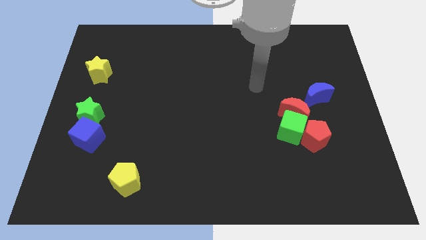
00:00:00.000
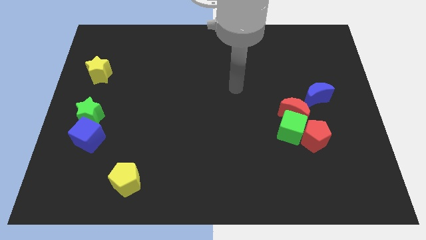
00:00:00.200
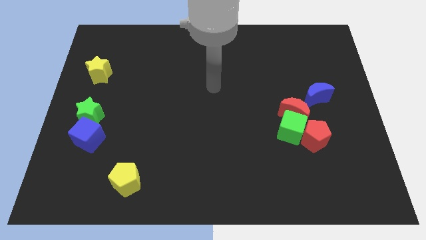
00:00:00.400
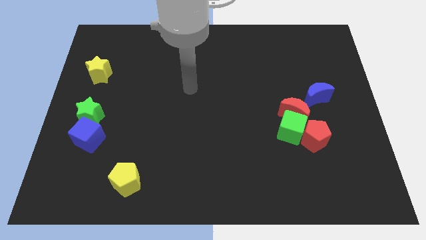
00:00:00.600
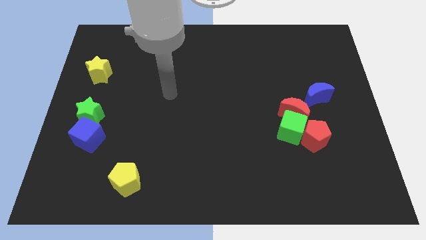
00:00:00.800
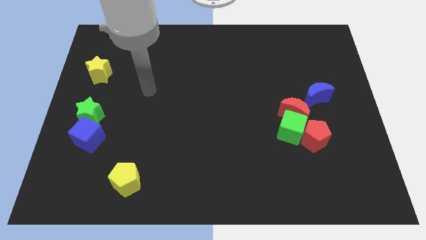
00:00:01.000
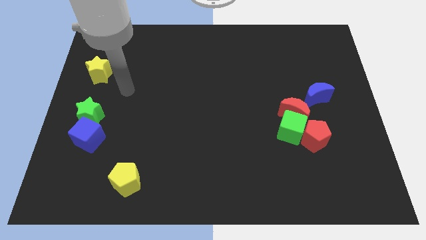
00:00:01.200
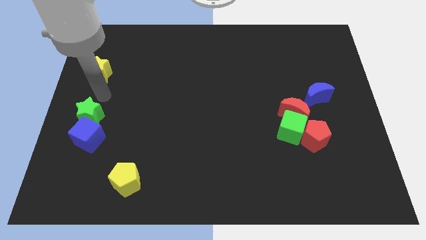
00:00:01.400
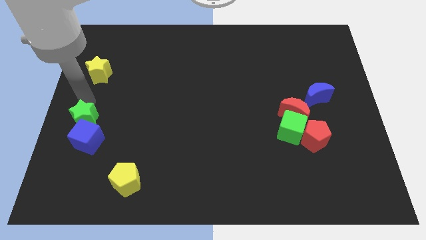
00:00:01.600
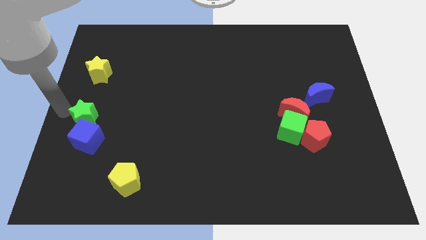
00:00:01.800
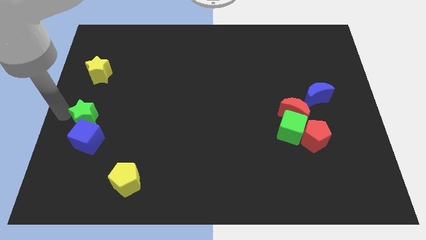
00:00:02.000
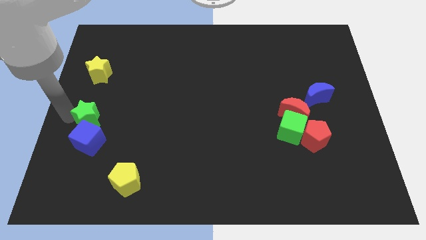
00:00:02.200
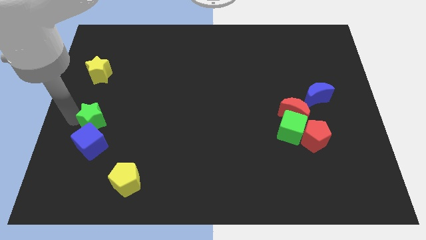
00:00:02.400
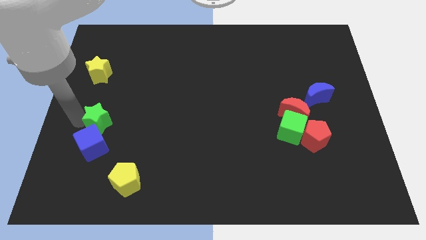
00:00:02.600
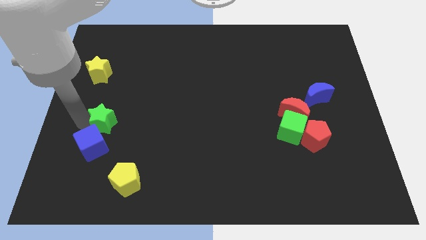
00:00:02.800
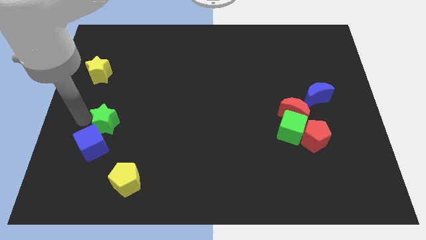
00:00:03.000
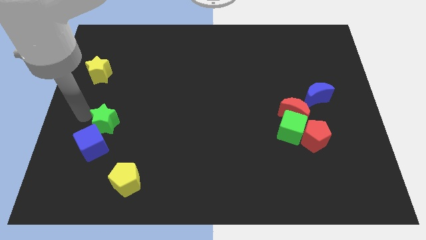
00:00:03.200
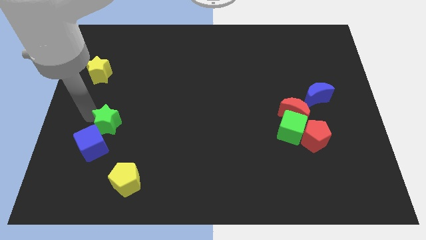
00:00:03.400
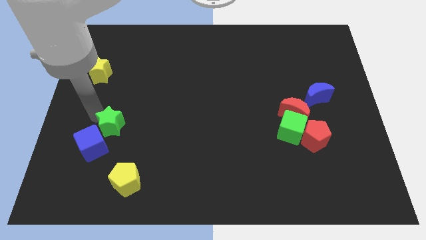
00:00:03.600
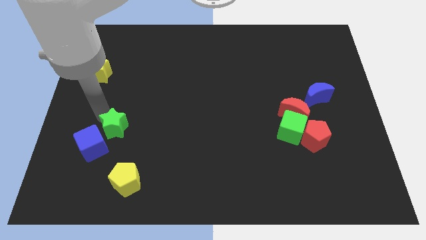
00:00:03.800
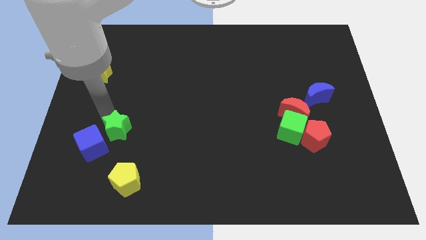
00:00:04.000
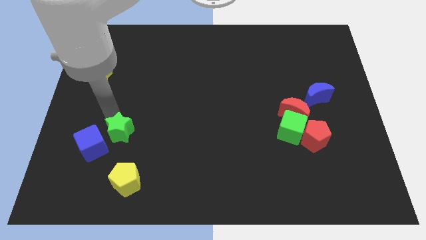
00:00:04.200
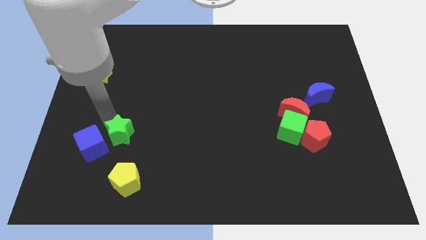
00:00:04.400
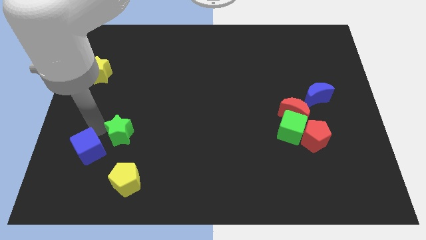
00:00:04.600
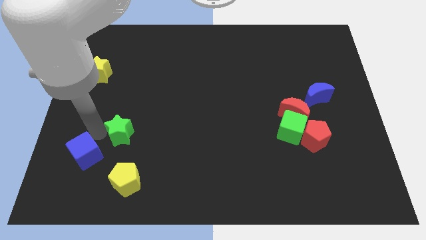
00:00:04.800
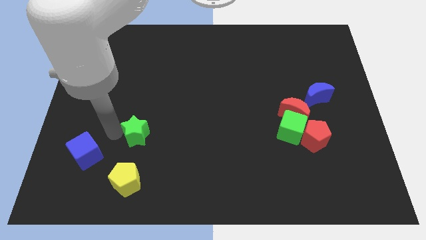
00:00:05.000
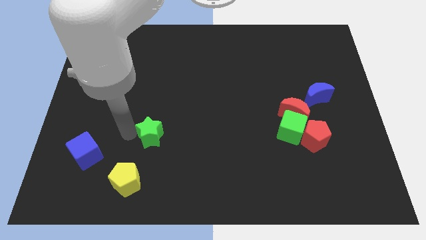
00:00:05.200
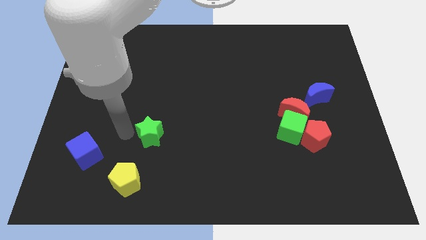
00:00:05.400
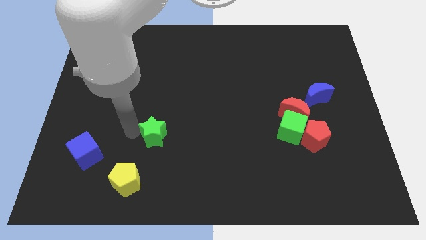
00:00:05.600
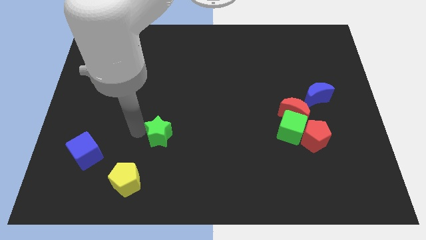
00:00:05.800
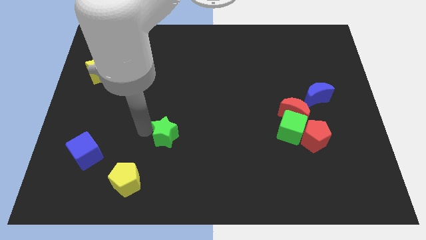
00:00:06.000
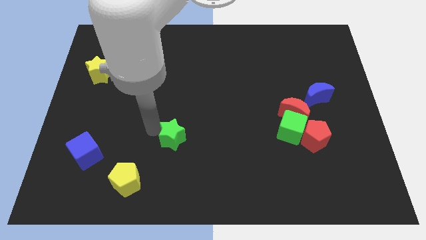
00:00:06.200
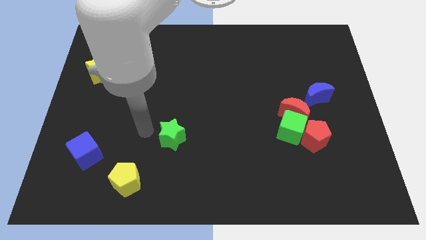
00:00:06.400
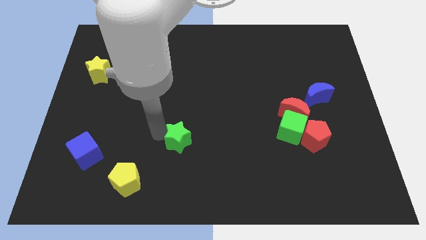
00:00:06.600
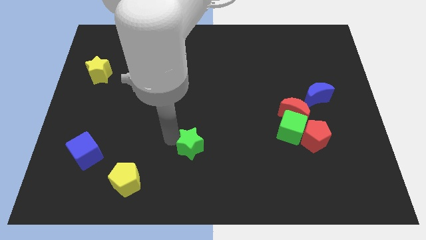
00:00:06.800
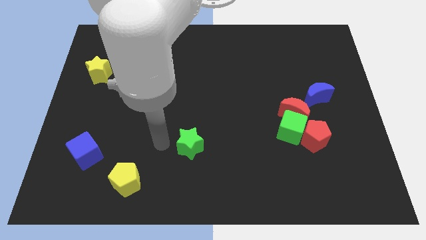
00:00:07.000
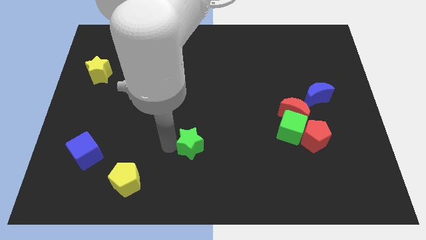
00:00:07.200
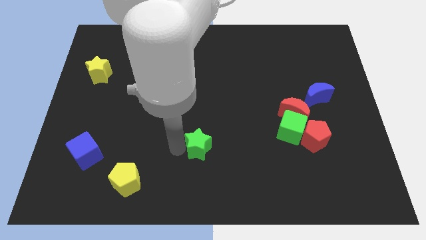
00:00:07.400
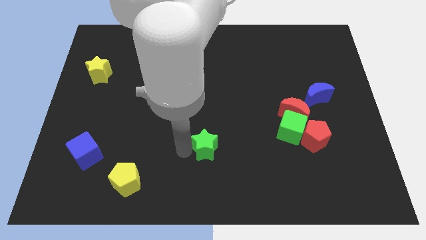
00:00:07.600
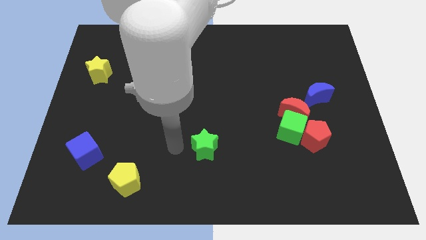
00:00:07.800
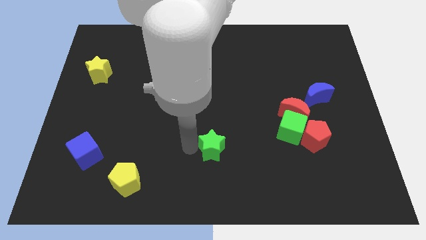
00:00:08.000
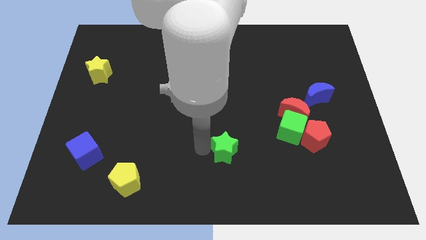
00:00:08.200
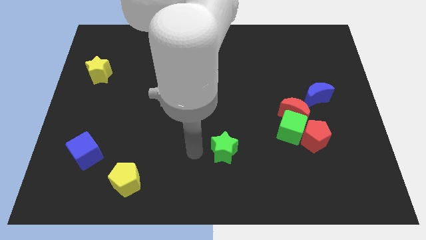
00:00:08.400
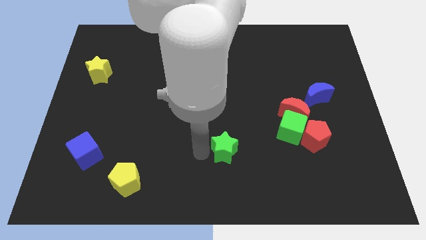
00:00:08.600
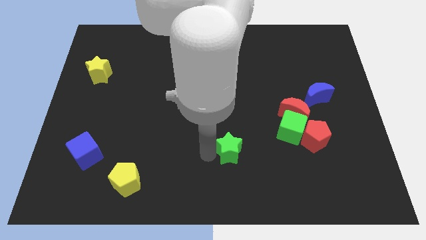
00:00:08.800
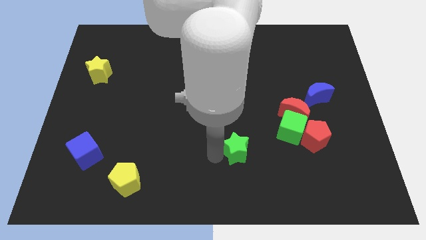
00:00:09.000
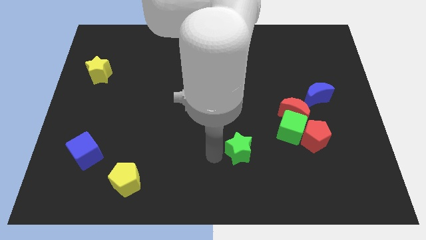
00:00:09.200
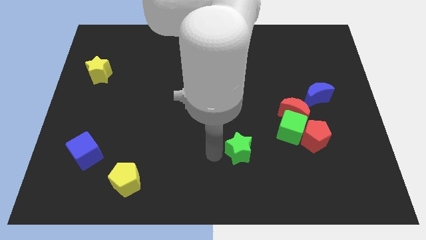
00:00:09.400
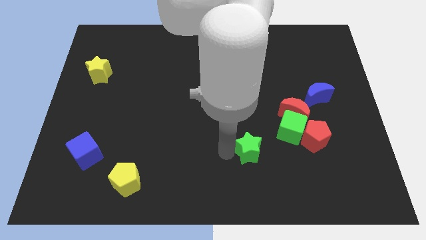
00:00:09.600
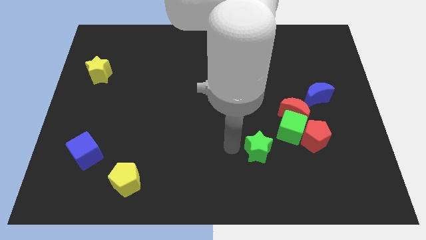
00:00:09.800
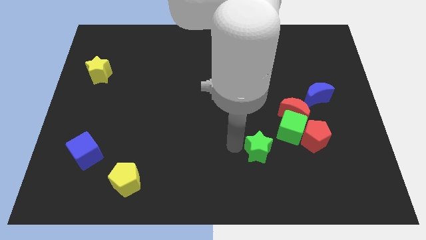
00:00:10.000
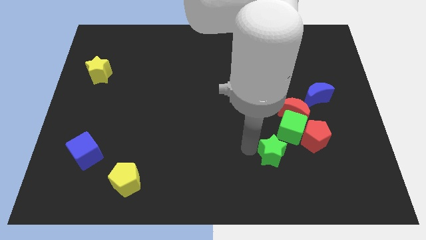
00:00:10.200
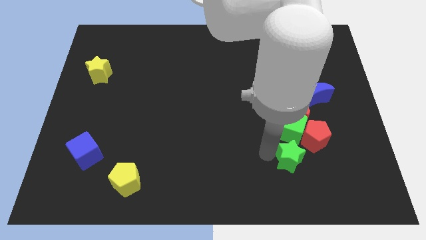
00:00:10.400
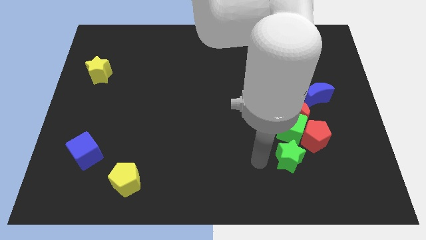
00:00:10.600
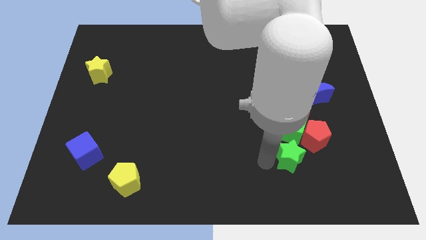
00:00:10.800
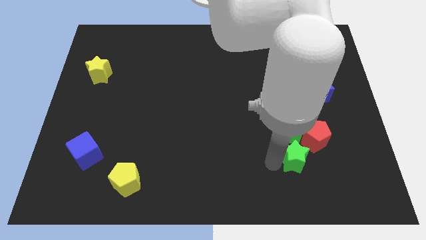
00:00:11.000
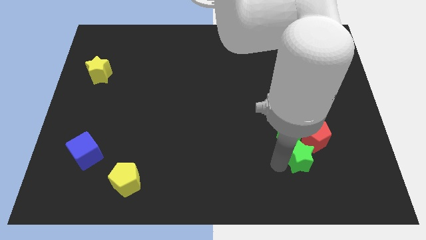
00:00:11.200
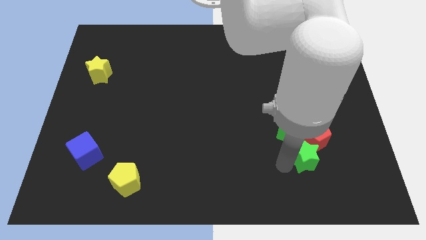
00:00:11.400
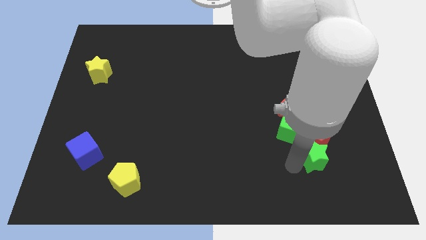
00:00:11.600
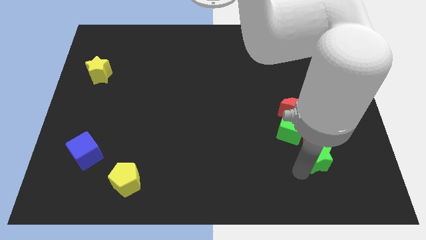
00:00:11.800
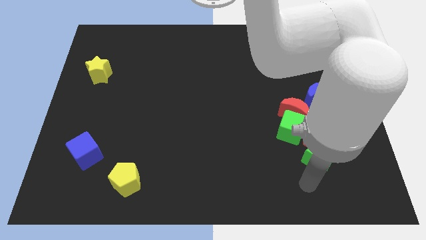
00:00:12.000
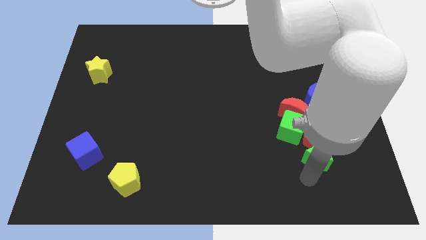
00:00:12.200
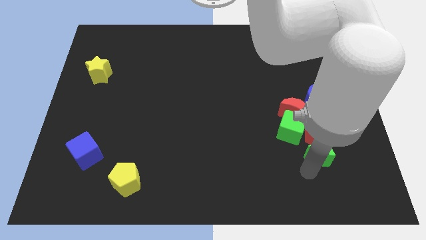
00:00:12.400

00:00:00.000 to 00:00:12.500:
put the green star to the bottom of the blue moon

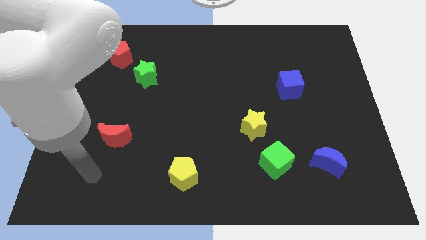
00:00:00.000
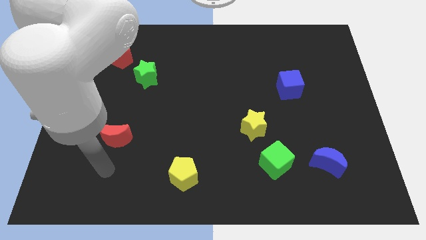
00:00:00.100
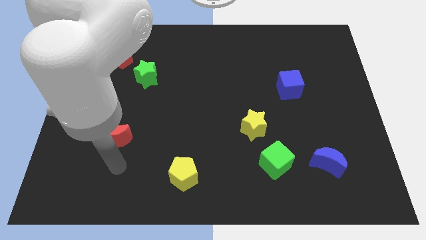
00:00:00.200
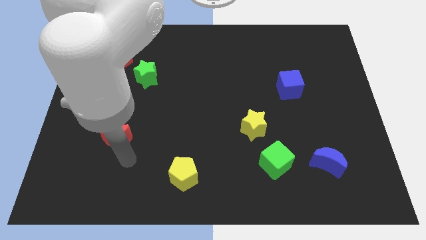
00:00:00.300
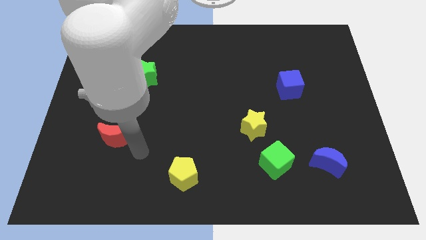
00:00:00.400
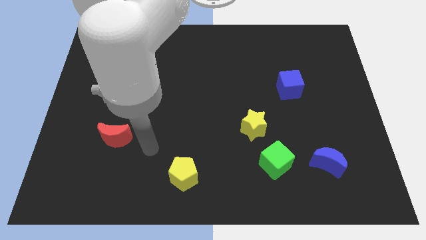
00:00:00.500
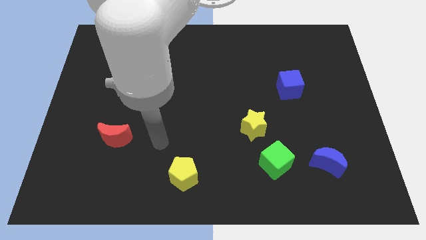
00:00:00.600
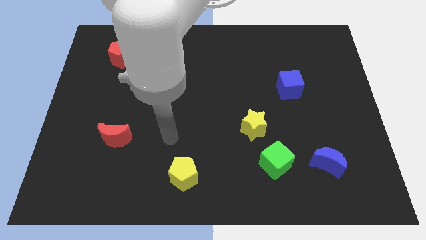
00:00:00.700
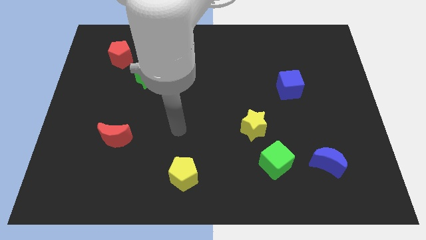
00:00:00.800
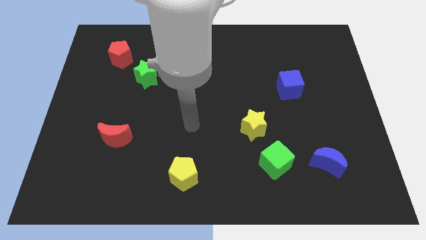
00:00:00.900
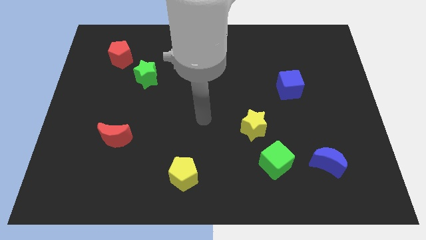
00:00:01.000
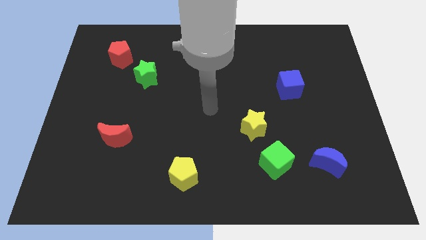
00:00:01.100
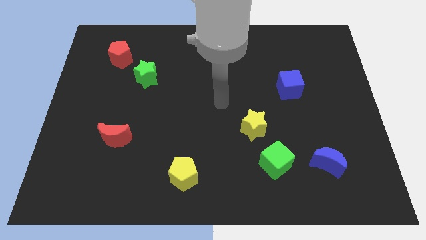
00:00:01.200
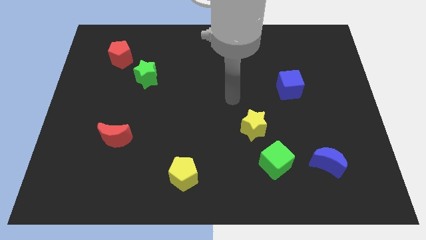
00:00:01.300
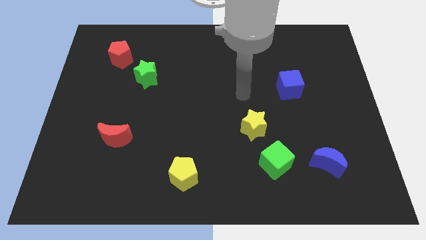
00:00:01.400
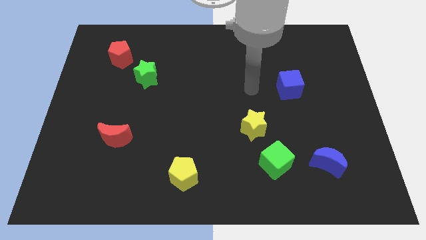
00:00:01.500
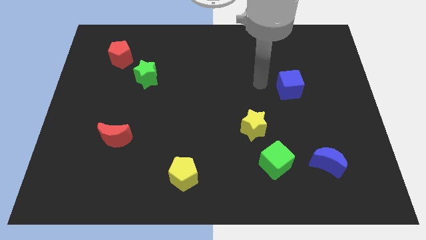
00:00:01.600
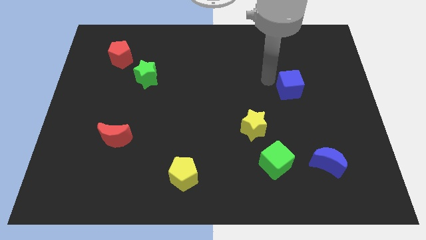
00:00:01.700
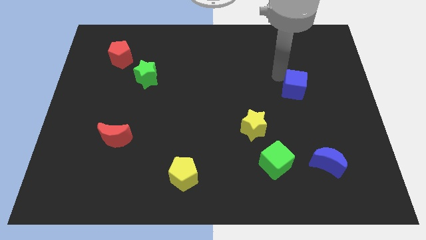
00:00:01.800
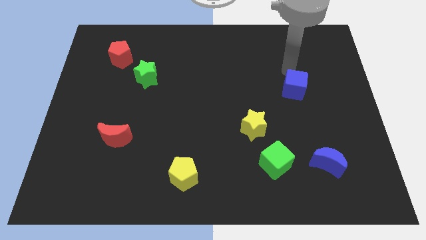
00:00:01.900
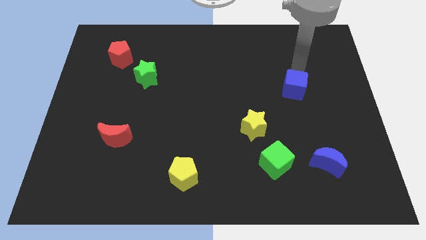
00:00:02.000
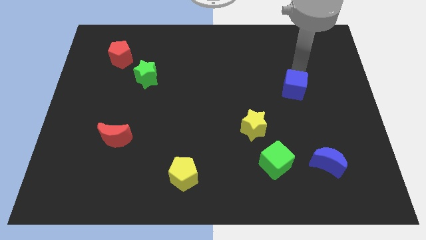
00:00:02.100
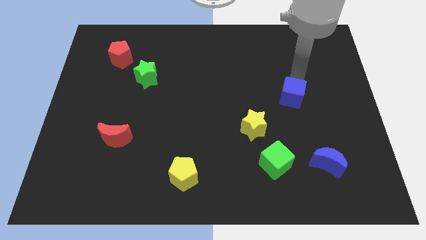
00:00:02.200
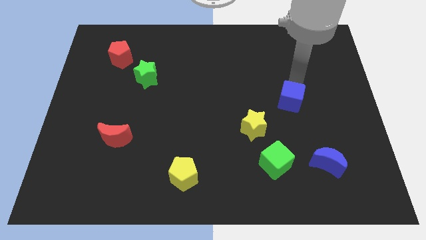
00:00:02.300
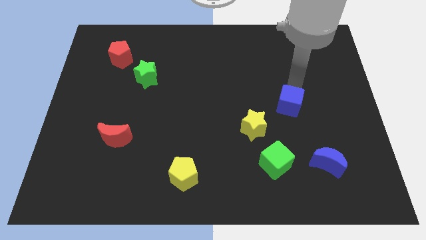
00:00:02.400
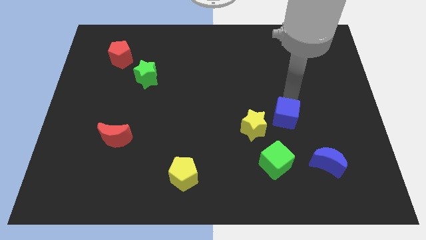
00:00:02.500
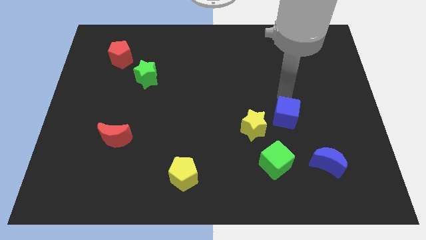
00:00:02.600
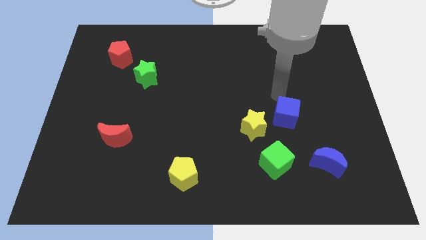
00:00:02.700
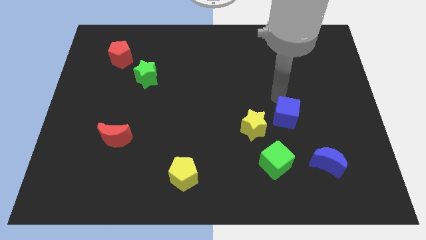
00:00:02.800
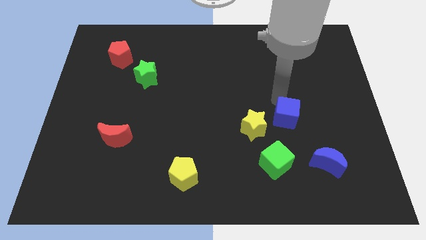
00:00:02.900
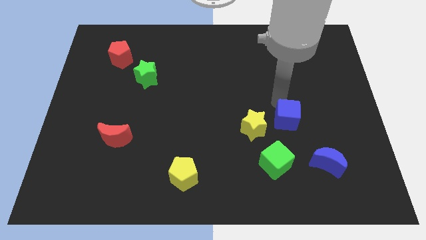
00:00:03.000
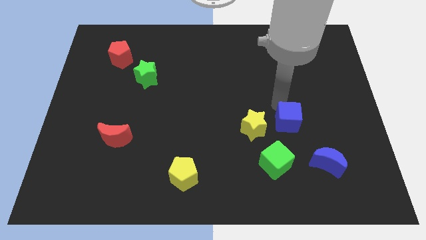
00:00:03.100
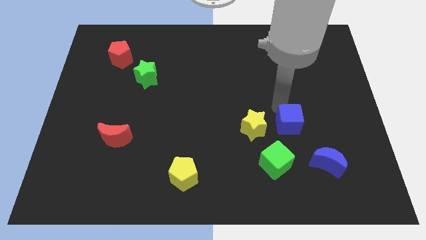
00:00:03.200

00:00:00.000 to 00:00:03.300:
move the blue cube to the top right side of the green cube
